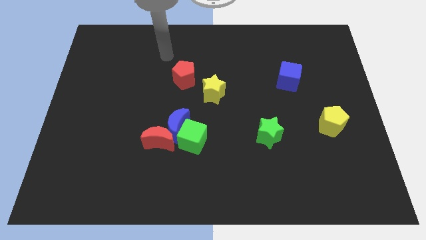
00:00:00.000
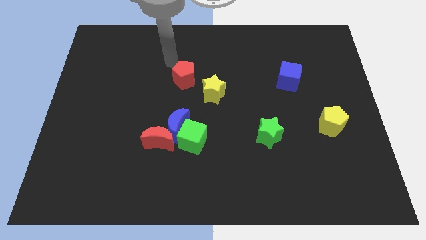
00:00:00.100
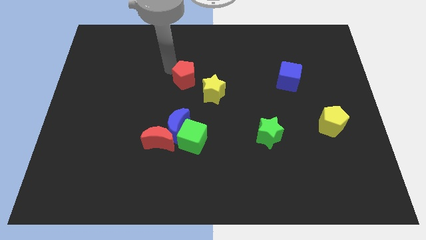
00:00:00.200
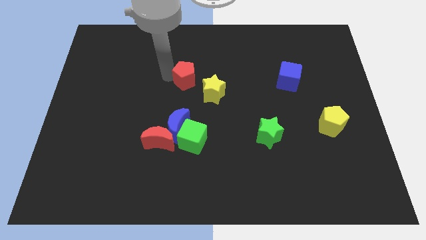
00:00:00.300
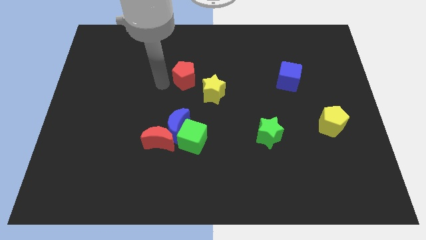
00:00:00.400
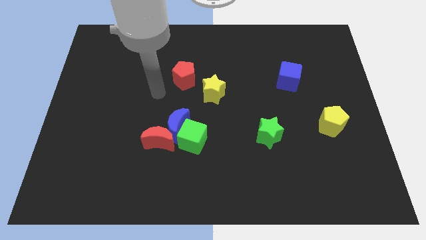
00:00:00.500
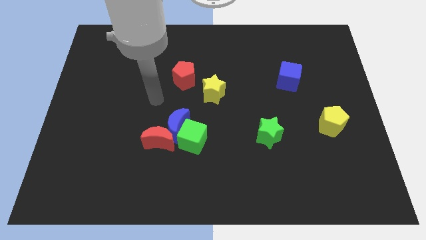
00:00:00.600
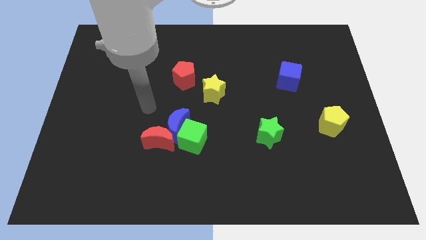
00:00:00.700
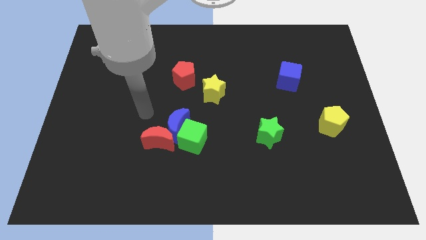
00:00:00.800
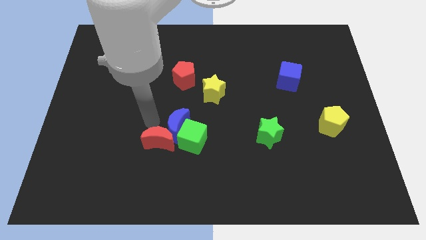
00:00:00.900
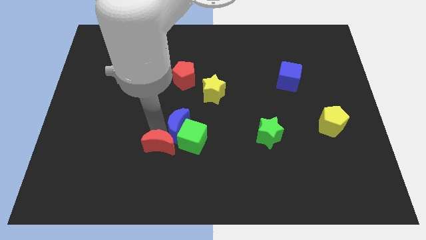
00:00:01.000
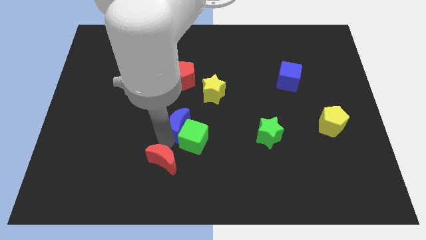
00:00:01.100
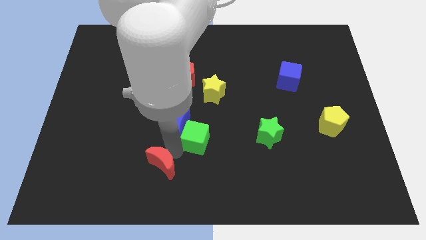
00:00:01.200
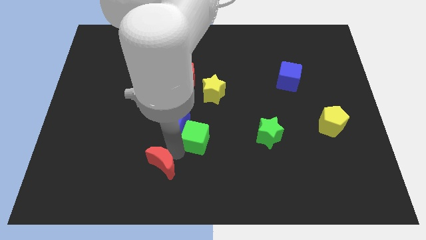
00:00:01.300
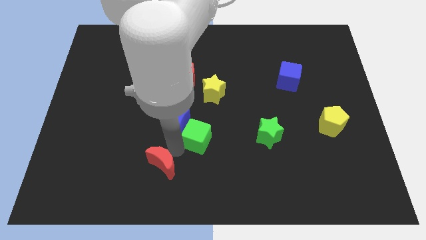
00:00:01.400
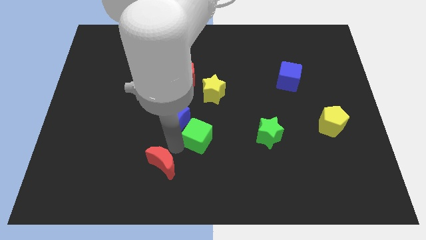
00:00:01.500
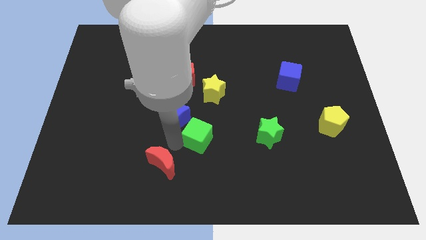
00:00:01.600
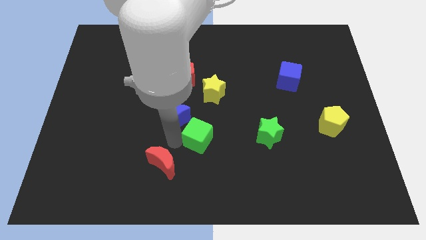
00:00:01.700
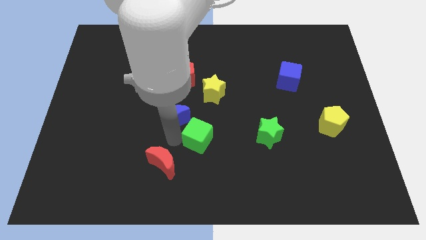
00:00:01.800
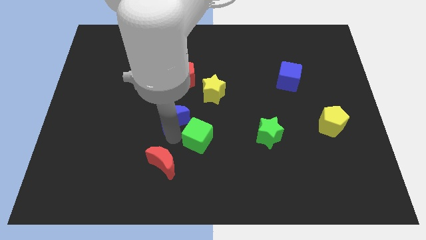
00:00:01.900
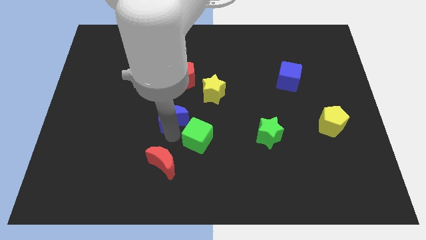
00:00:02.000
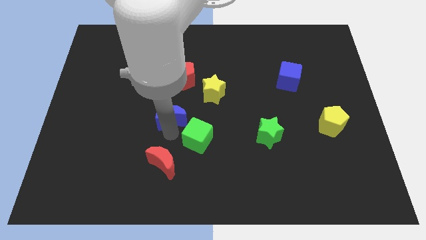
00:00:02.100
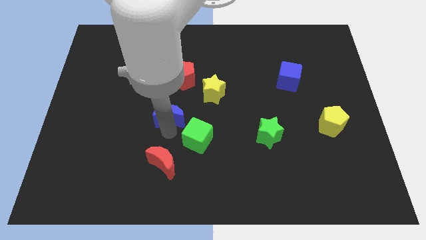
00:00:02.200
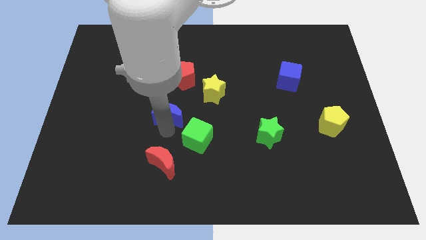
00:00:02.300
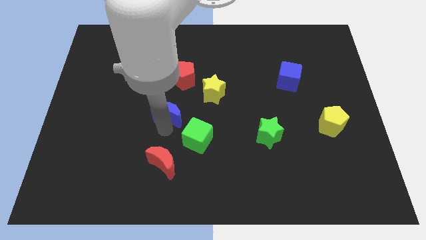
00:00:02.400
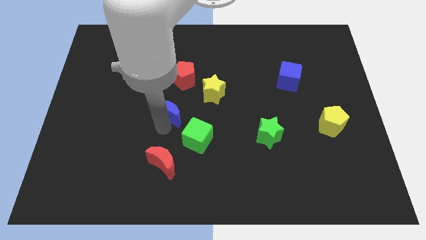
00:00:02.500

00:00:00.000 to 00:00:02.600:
move the blue moon away from the green cube and red moon

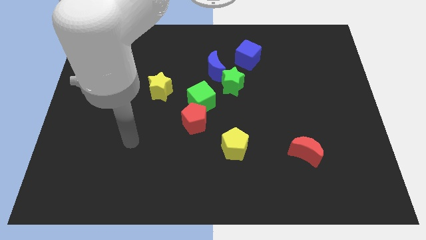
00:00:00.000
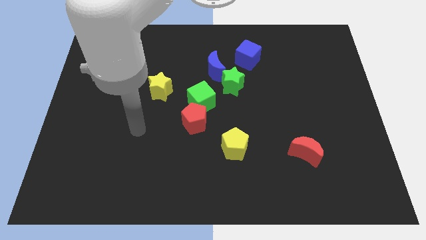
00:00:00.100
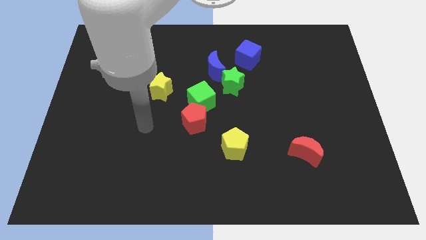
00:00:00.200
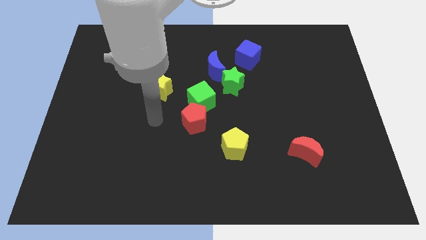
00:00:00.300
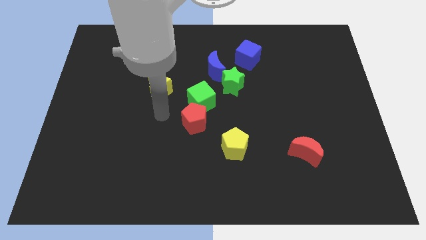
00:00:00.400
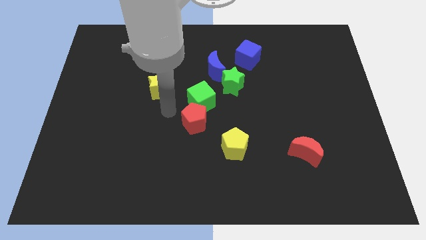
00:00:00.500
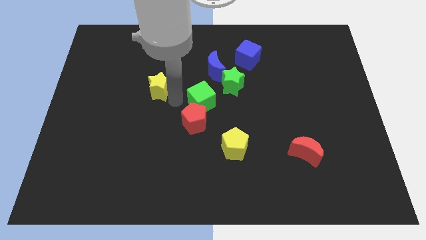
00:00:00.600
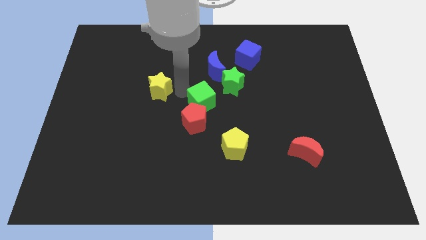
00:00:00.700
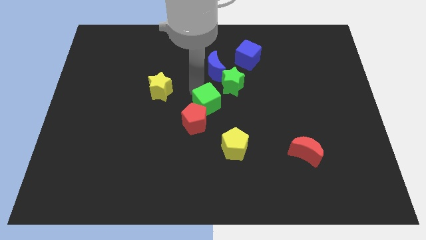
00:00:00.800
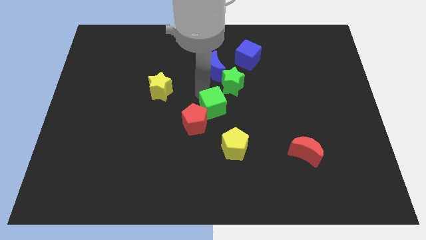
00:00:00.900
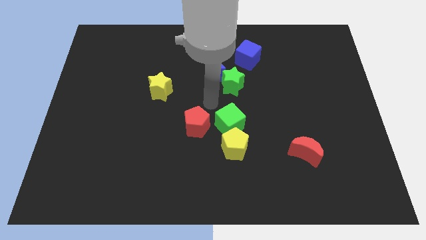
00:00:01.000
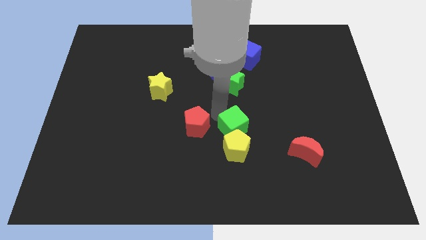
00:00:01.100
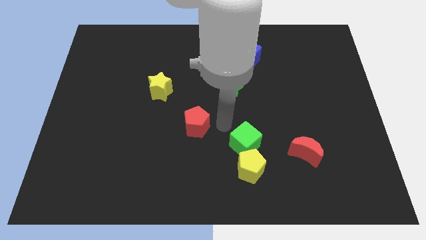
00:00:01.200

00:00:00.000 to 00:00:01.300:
pull the red pentagon apart from the green cube

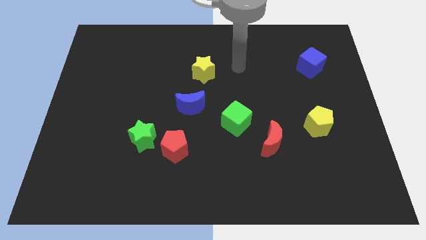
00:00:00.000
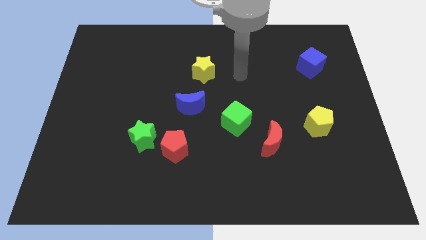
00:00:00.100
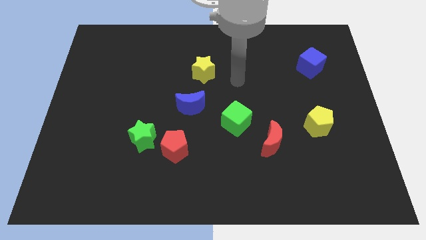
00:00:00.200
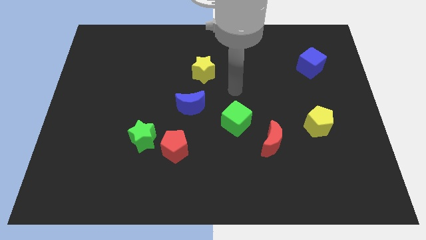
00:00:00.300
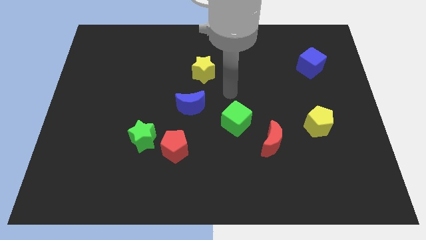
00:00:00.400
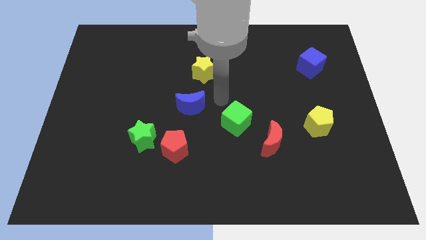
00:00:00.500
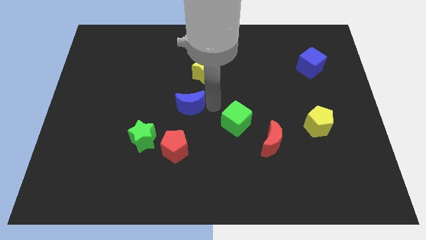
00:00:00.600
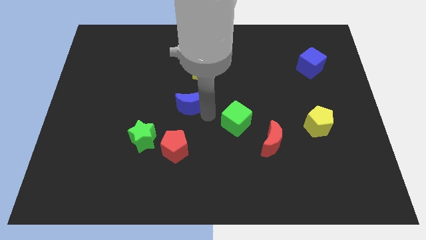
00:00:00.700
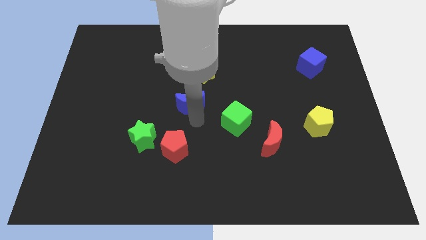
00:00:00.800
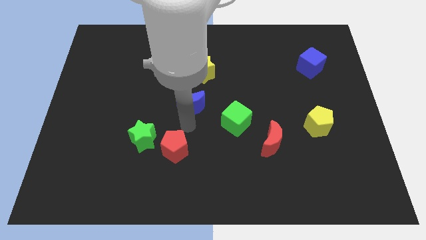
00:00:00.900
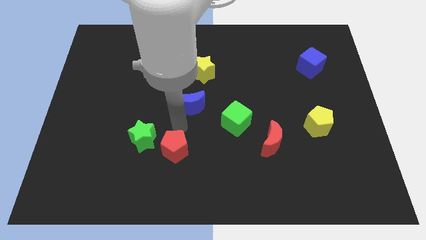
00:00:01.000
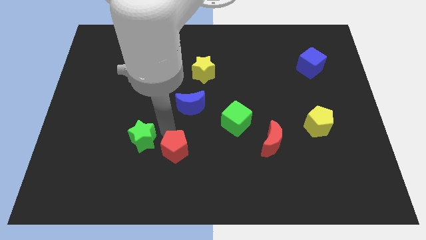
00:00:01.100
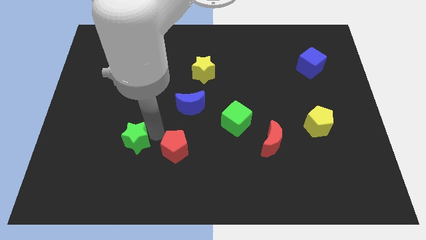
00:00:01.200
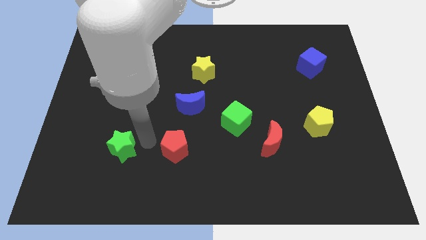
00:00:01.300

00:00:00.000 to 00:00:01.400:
move the red pentagon away from the green star

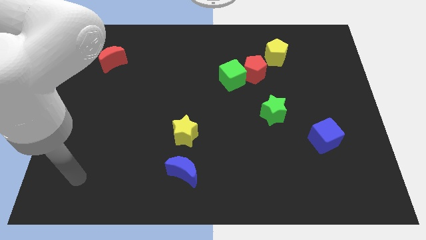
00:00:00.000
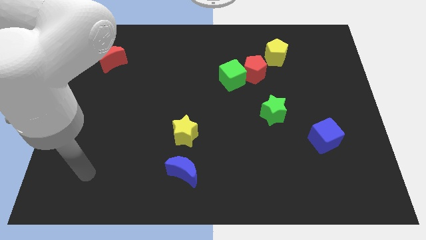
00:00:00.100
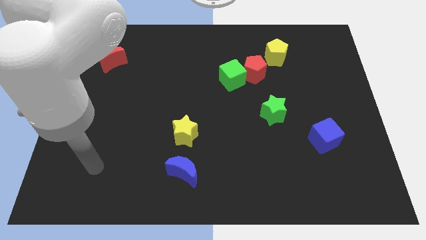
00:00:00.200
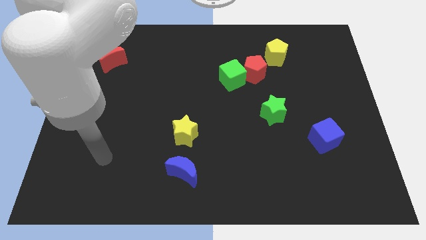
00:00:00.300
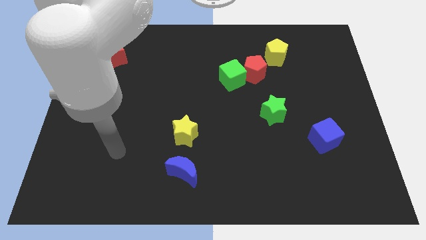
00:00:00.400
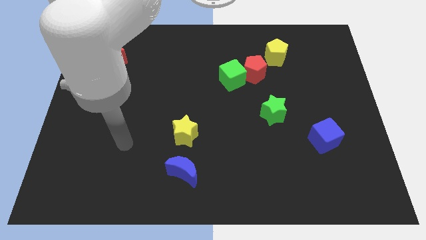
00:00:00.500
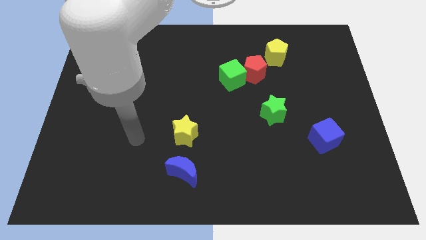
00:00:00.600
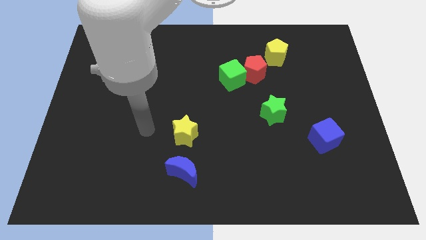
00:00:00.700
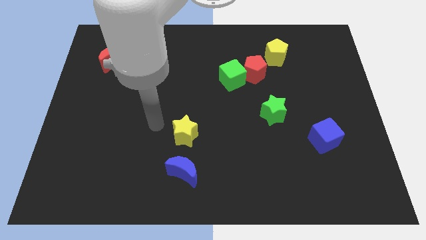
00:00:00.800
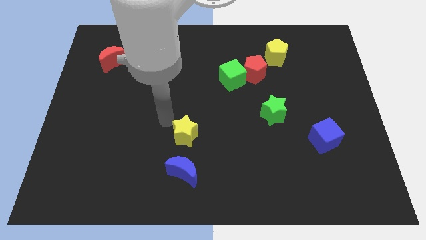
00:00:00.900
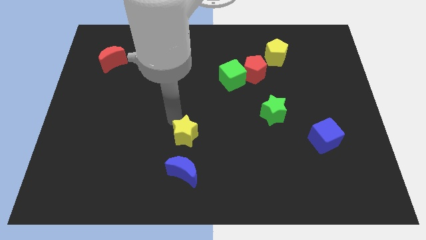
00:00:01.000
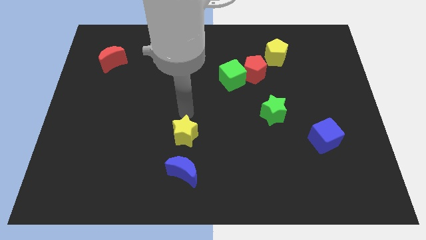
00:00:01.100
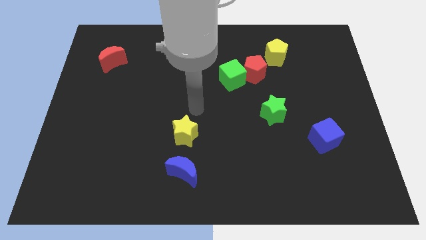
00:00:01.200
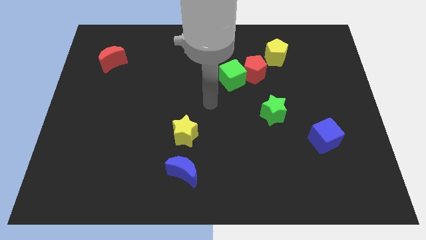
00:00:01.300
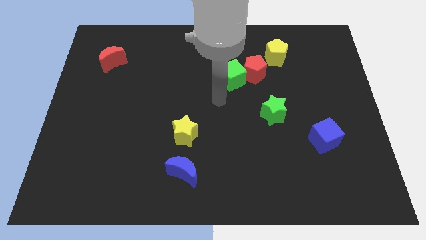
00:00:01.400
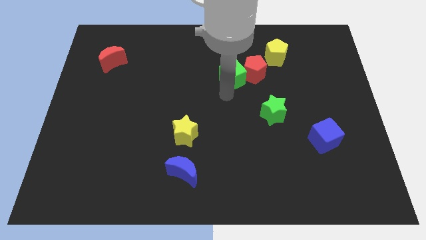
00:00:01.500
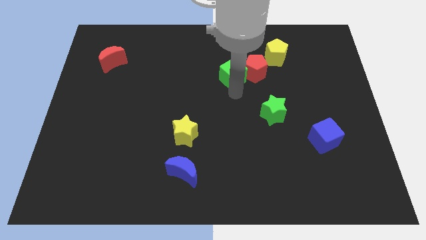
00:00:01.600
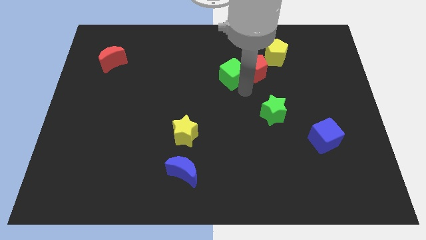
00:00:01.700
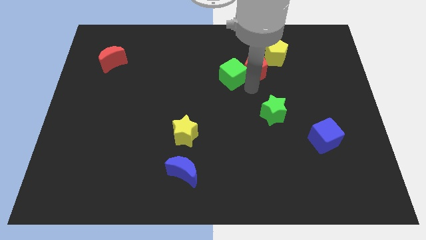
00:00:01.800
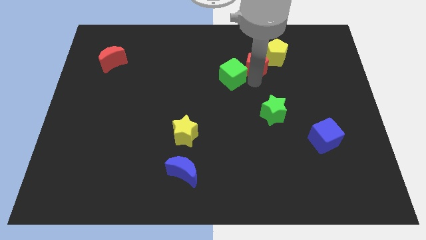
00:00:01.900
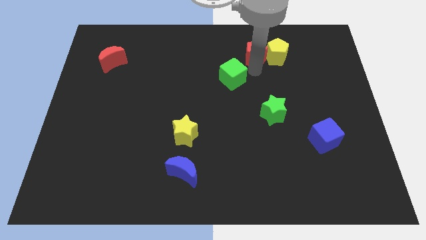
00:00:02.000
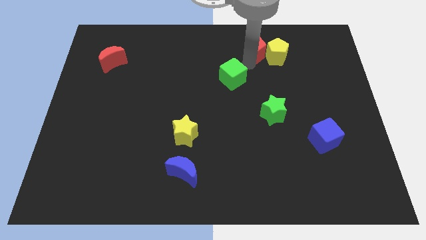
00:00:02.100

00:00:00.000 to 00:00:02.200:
pull the green cube apart from the red pentagon

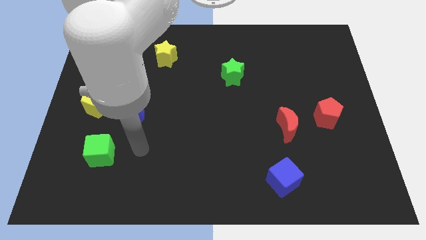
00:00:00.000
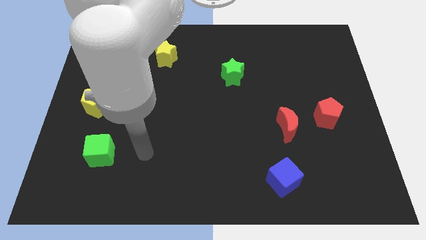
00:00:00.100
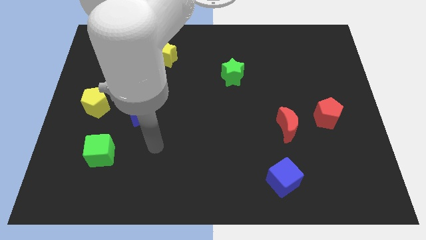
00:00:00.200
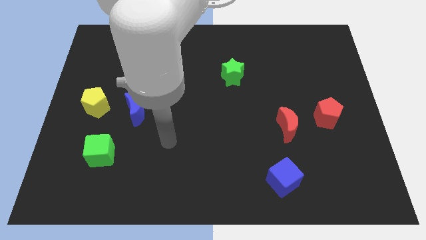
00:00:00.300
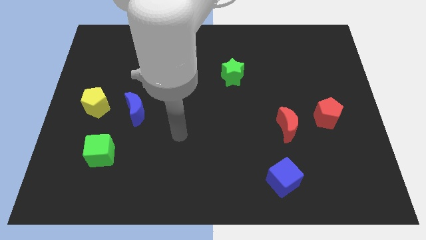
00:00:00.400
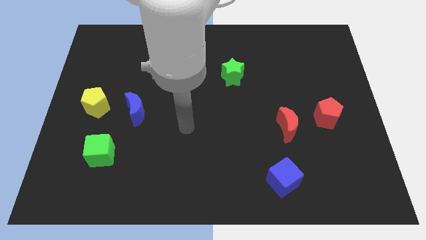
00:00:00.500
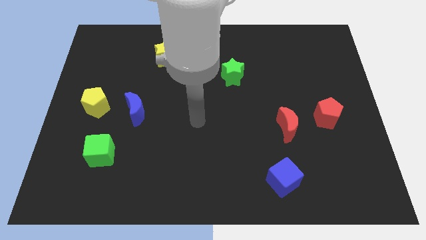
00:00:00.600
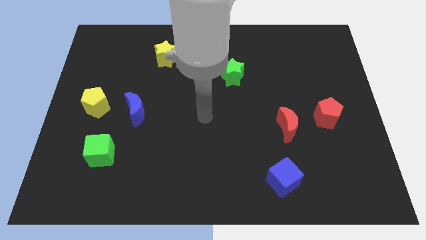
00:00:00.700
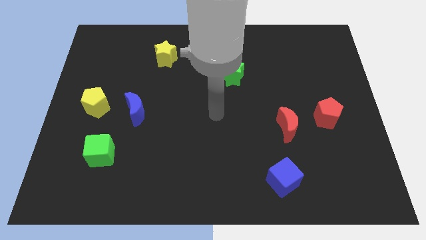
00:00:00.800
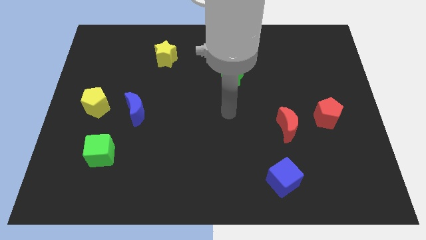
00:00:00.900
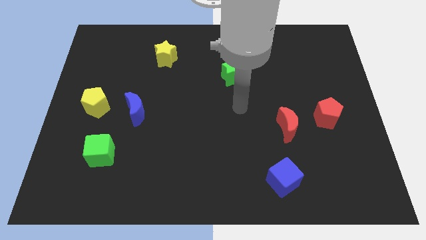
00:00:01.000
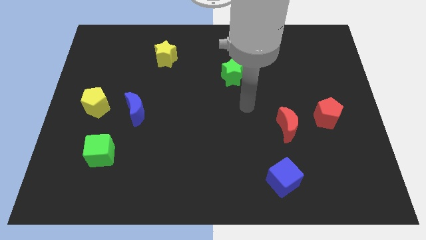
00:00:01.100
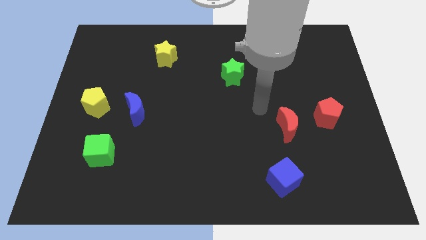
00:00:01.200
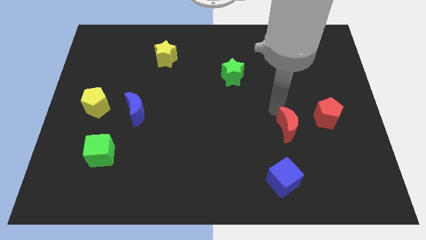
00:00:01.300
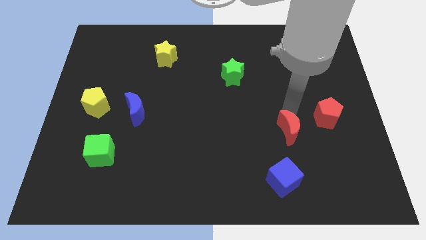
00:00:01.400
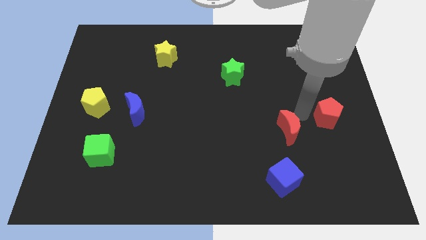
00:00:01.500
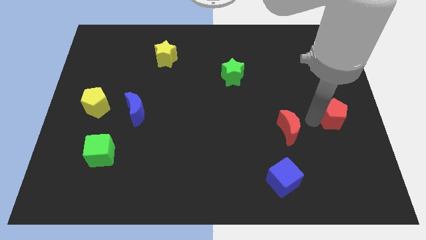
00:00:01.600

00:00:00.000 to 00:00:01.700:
move the red moon away from the red pentagon

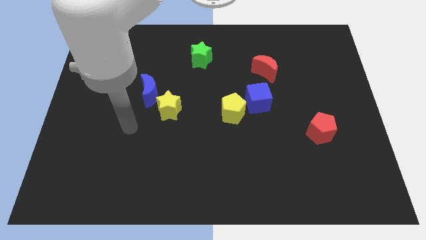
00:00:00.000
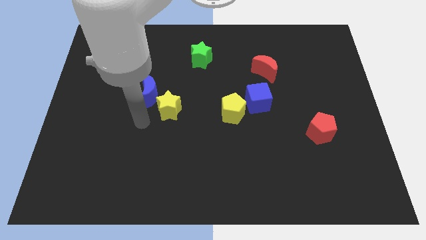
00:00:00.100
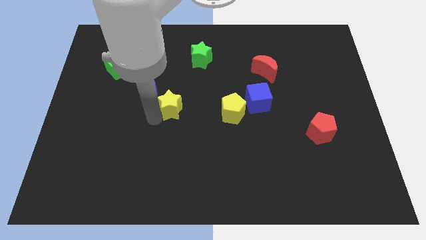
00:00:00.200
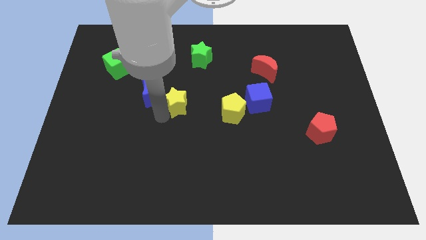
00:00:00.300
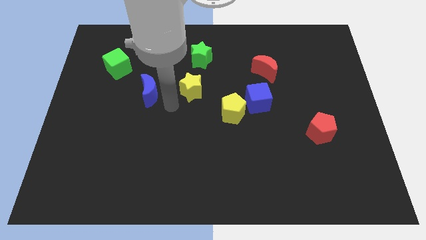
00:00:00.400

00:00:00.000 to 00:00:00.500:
move the blue moon away from the yellow star
